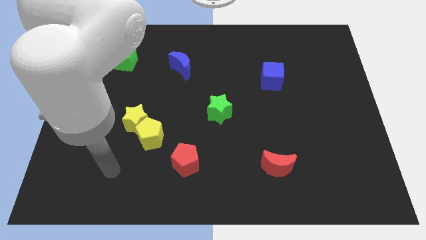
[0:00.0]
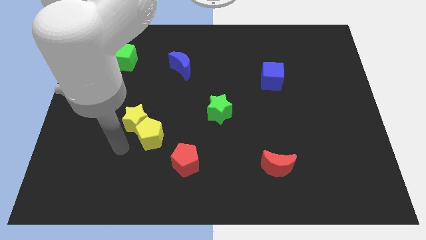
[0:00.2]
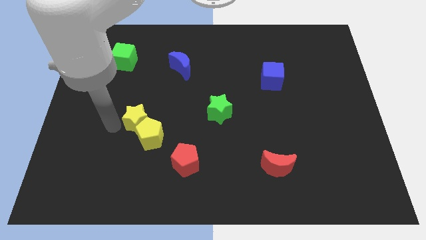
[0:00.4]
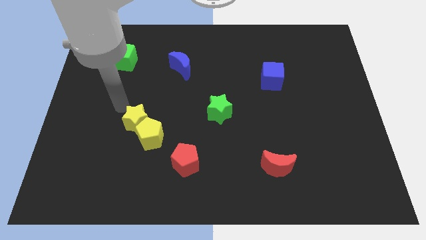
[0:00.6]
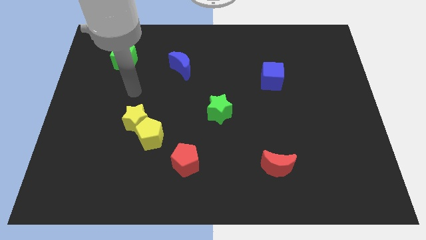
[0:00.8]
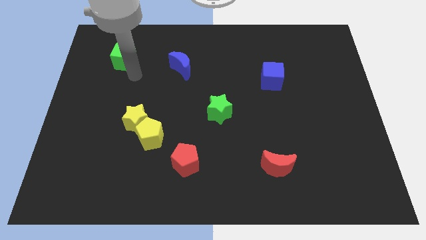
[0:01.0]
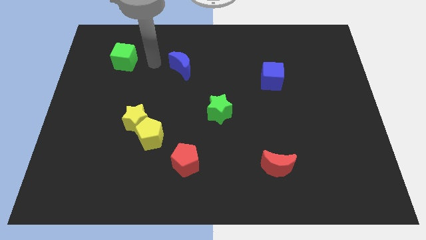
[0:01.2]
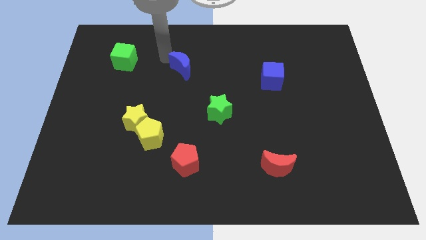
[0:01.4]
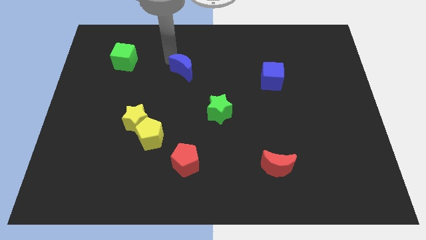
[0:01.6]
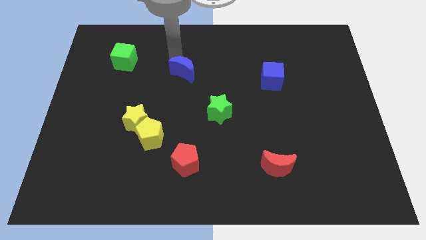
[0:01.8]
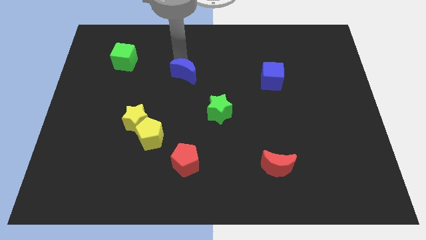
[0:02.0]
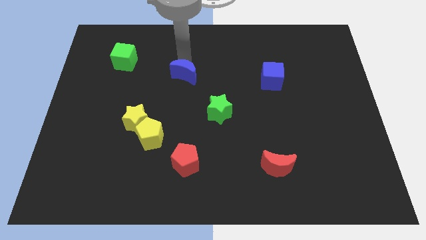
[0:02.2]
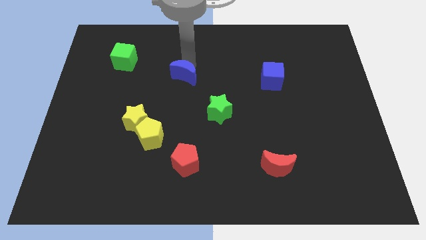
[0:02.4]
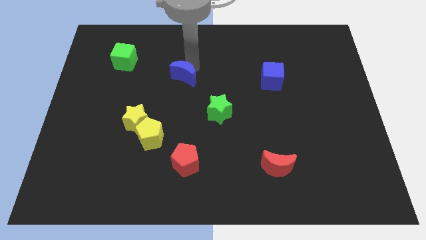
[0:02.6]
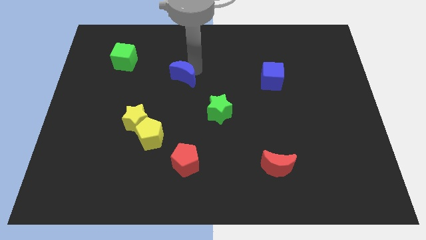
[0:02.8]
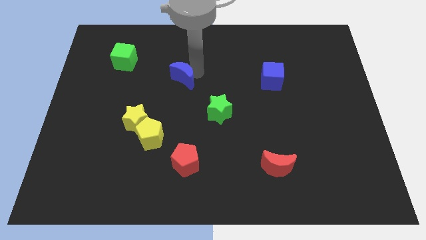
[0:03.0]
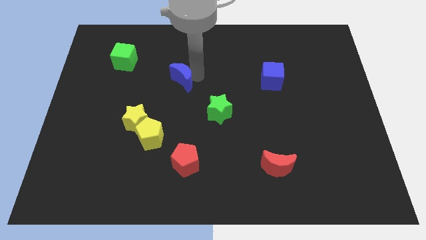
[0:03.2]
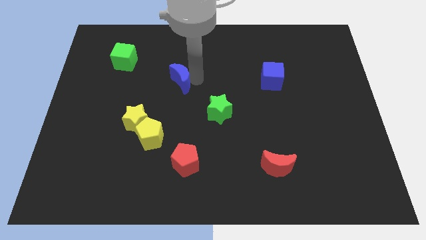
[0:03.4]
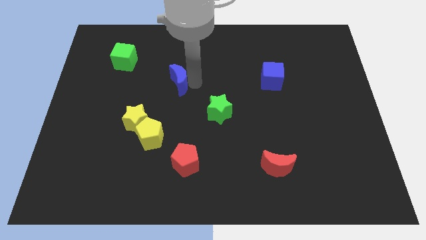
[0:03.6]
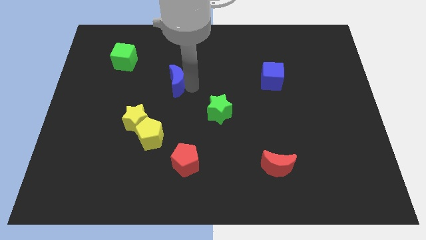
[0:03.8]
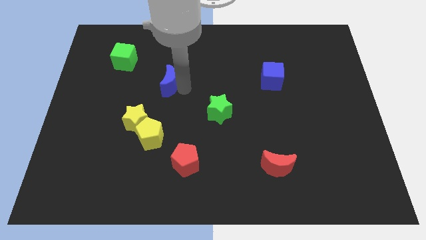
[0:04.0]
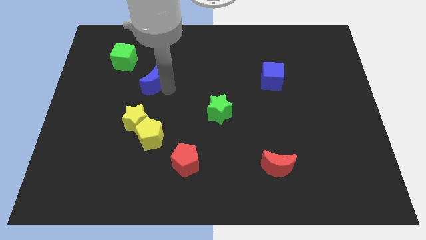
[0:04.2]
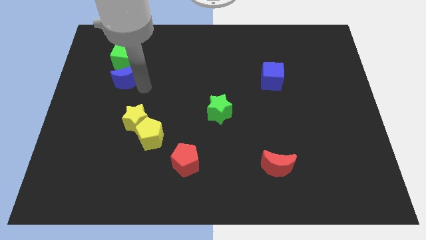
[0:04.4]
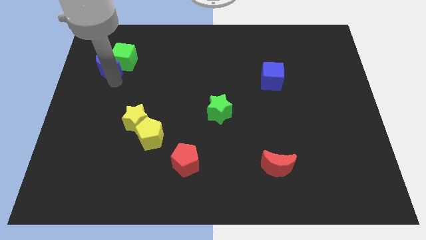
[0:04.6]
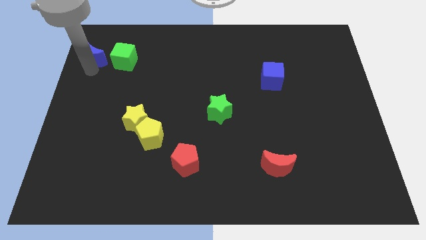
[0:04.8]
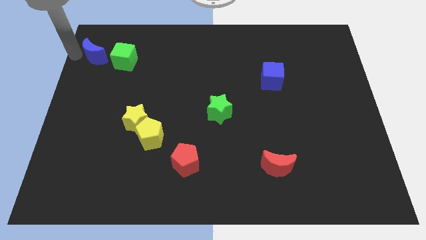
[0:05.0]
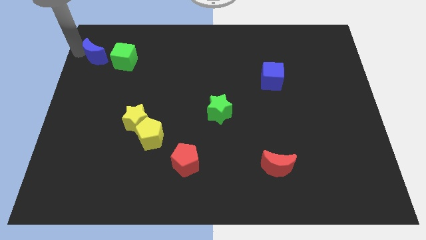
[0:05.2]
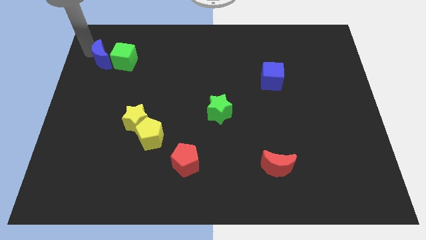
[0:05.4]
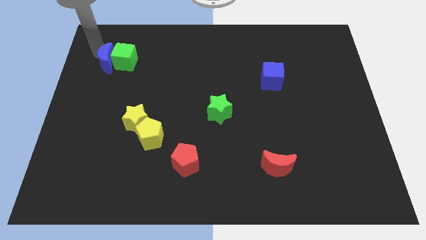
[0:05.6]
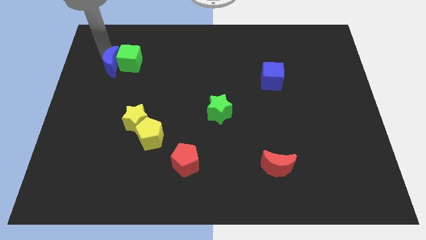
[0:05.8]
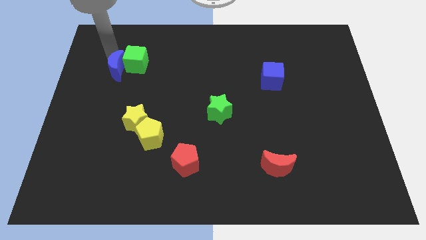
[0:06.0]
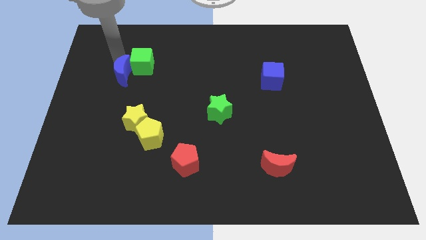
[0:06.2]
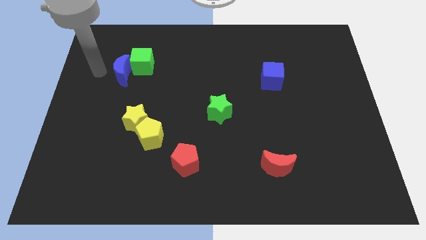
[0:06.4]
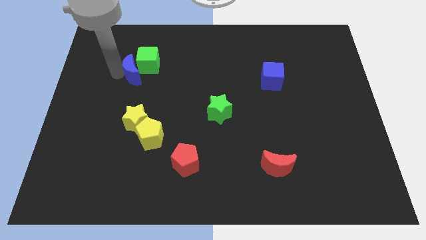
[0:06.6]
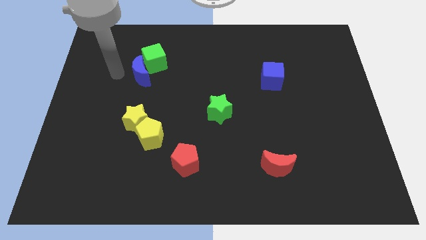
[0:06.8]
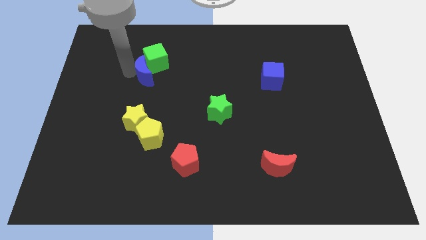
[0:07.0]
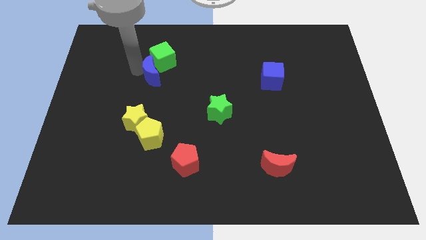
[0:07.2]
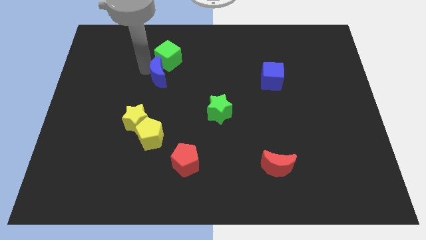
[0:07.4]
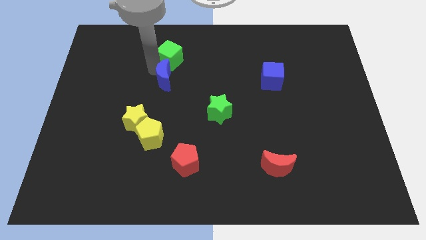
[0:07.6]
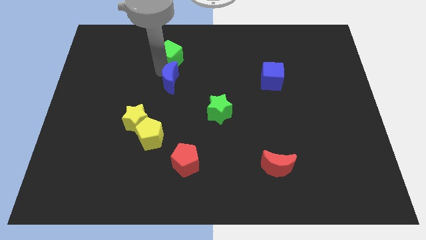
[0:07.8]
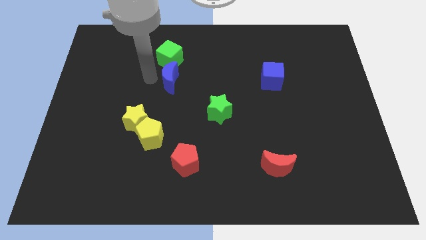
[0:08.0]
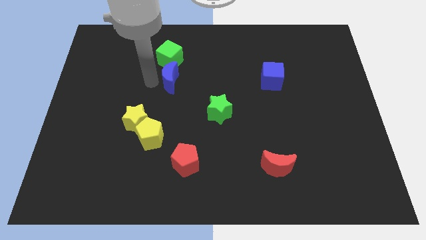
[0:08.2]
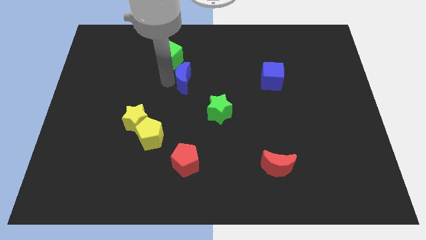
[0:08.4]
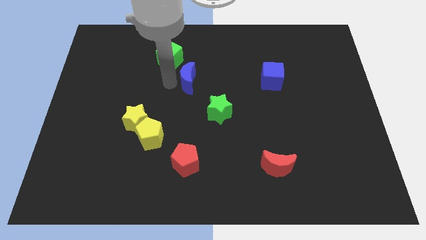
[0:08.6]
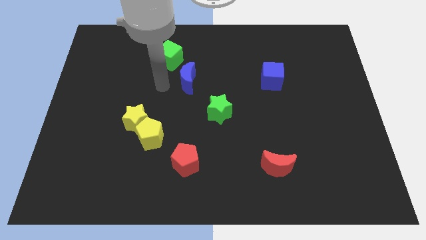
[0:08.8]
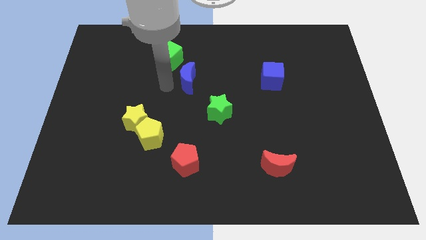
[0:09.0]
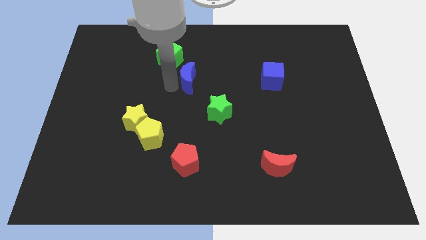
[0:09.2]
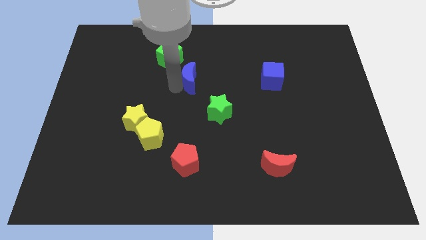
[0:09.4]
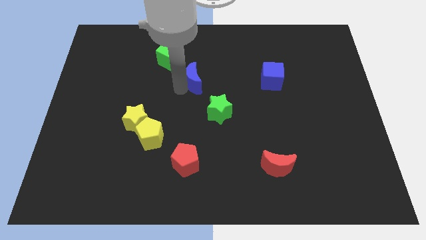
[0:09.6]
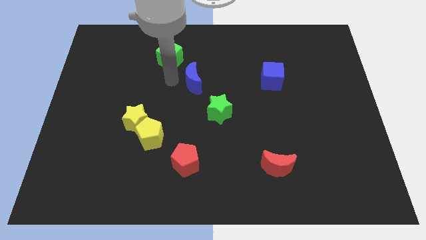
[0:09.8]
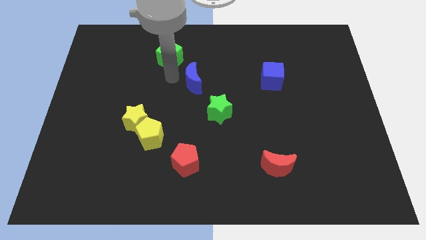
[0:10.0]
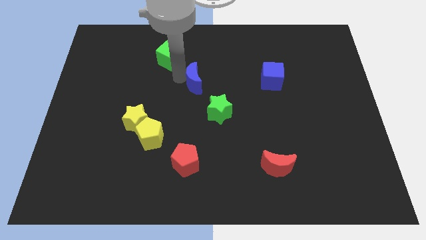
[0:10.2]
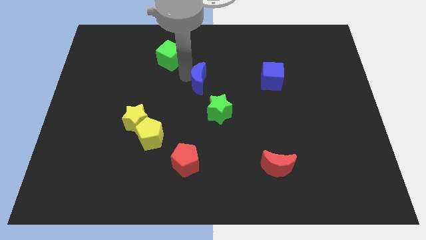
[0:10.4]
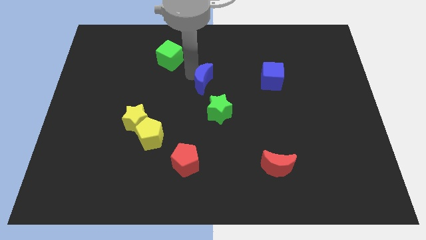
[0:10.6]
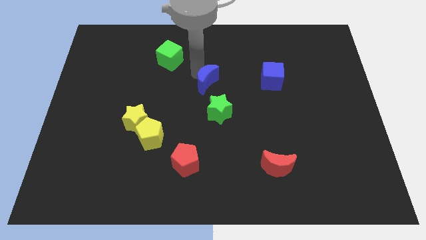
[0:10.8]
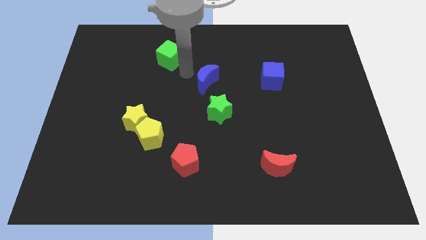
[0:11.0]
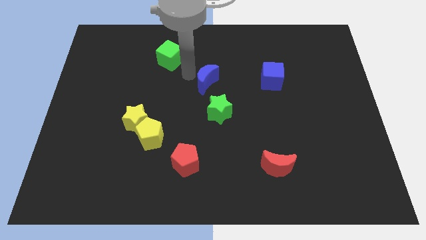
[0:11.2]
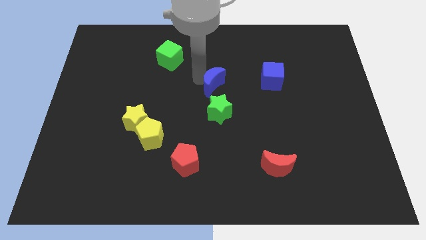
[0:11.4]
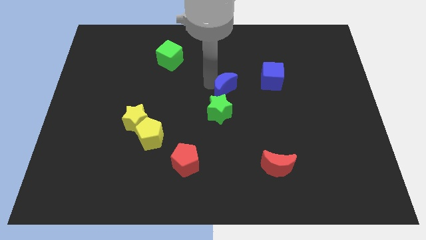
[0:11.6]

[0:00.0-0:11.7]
push the blue moon diagonally up and to the right of the green star

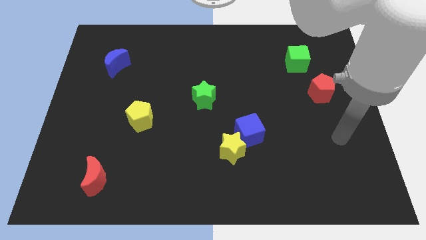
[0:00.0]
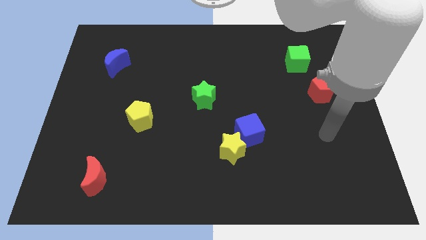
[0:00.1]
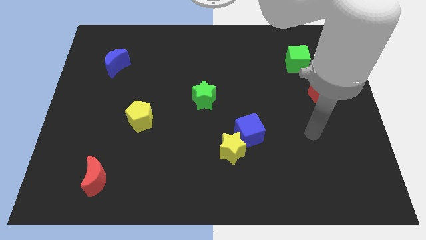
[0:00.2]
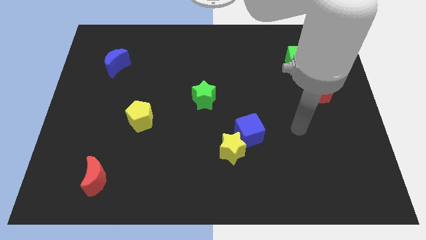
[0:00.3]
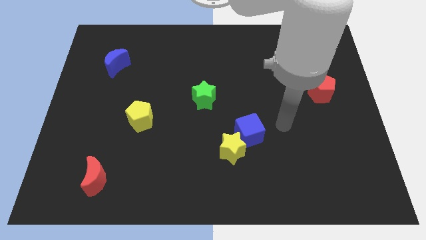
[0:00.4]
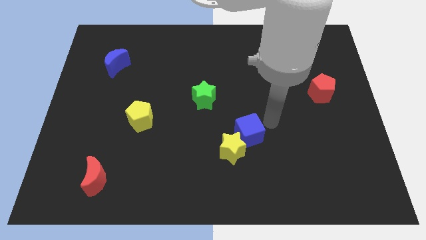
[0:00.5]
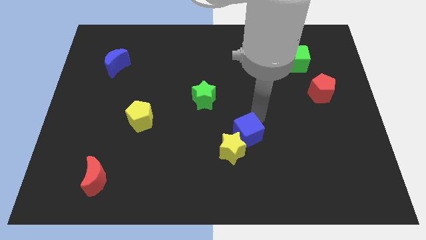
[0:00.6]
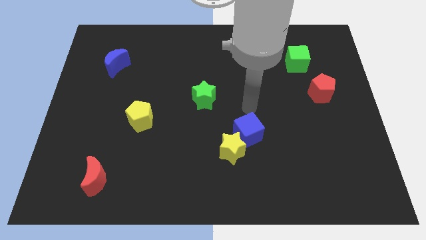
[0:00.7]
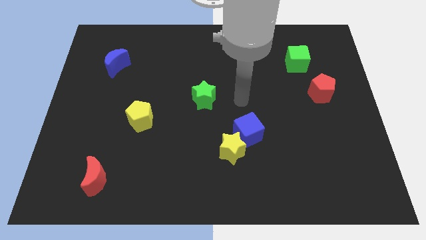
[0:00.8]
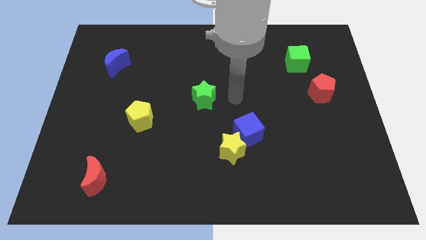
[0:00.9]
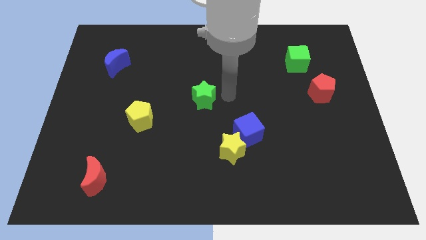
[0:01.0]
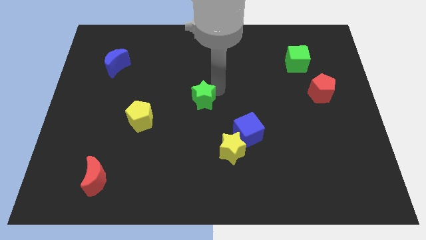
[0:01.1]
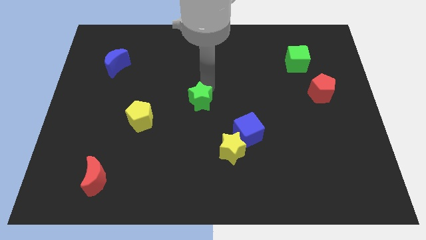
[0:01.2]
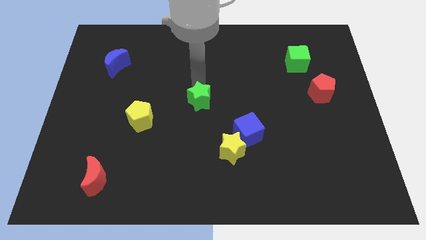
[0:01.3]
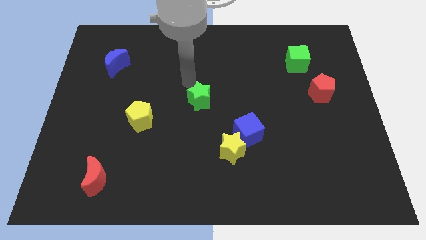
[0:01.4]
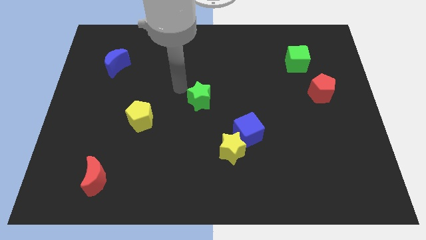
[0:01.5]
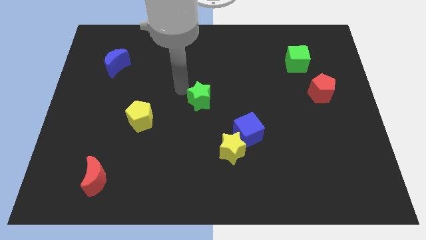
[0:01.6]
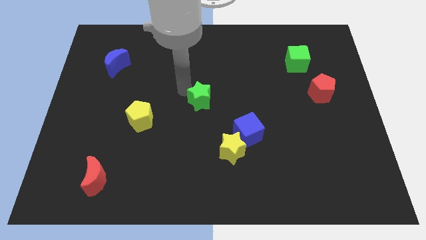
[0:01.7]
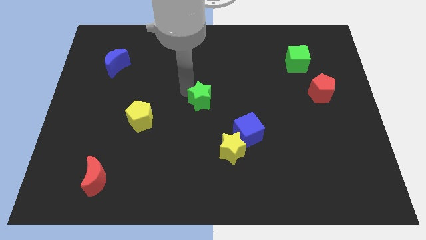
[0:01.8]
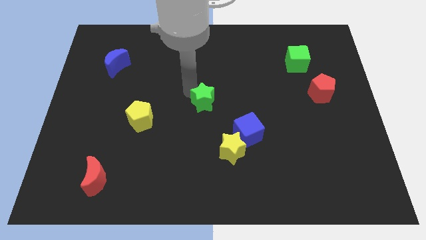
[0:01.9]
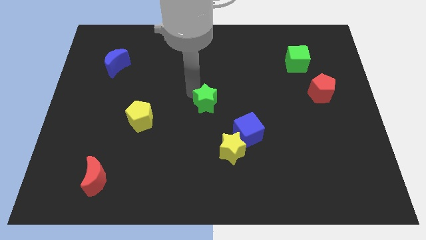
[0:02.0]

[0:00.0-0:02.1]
push the green star diagonally up and to the left of the blue cube

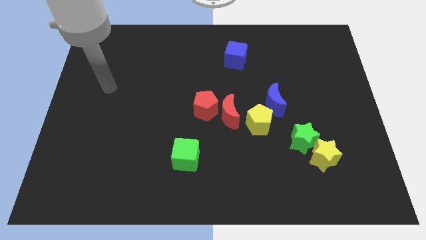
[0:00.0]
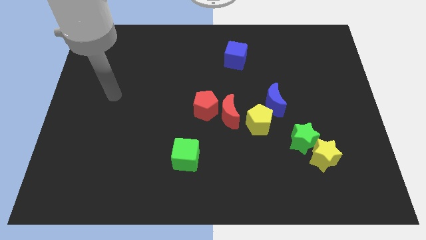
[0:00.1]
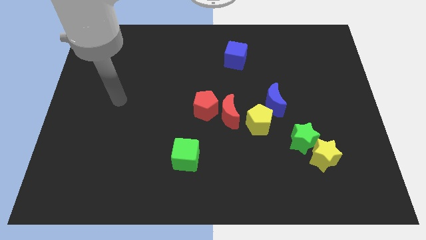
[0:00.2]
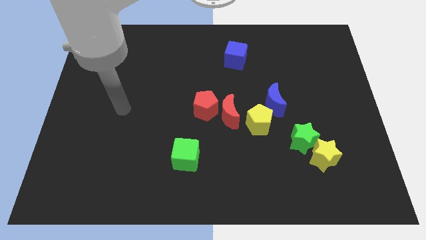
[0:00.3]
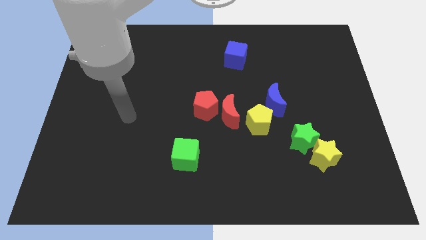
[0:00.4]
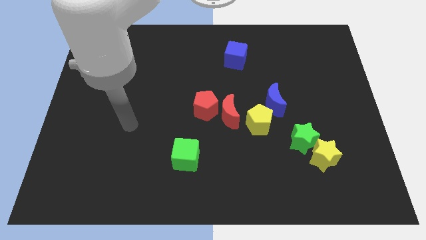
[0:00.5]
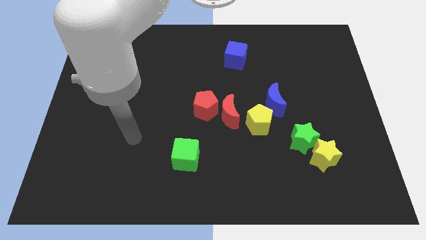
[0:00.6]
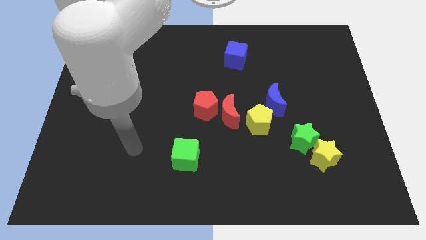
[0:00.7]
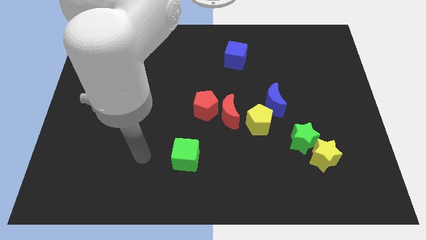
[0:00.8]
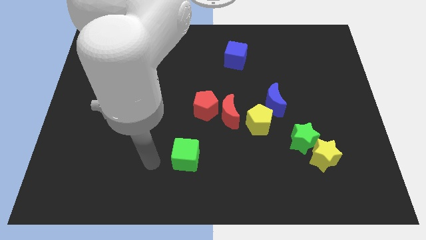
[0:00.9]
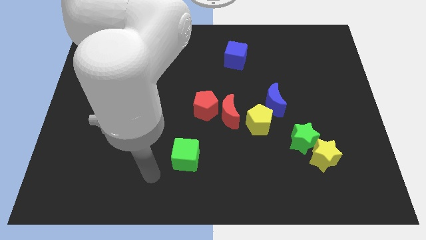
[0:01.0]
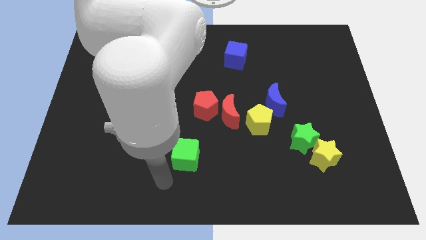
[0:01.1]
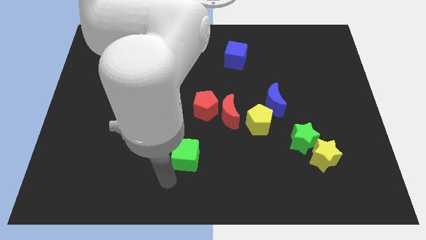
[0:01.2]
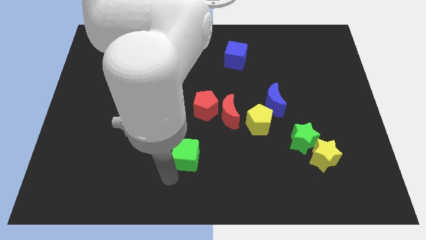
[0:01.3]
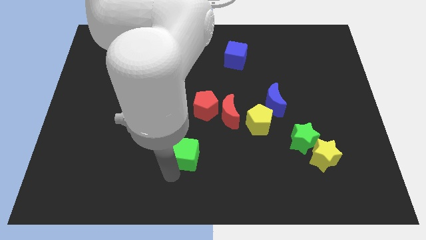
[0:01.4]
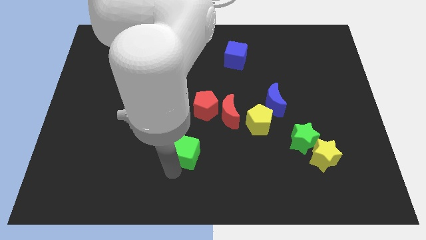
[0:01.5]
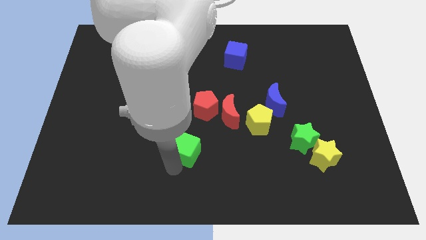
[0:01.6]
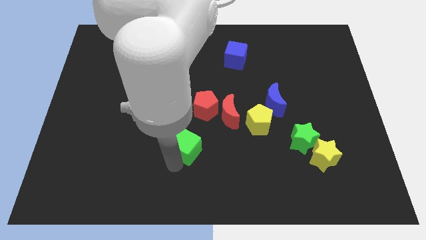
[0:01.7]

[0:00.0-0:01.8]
move the green cube diagonally down and to the left of the red moon
